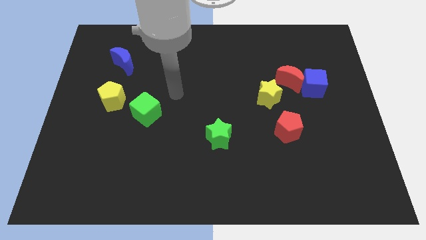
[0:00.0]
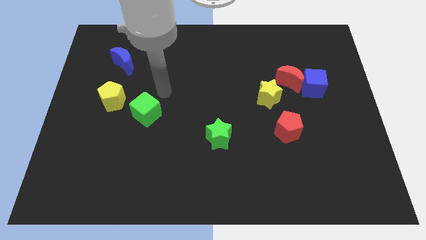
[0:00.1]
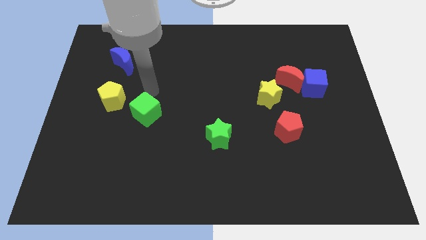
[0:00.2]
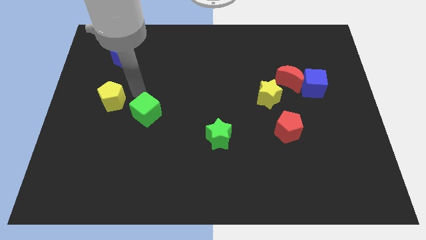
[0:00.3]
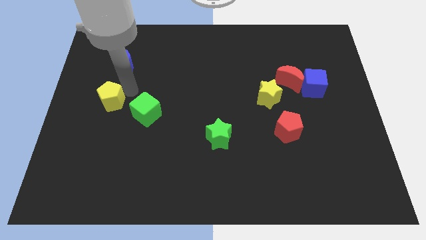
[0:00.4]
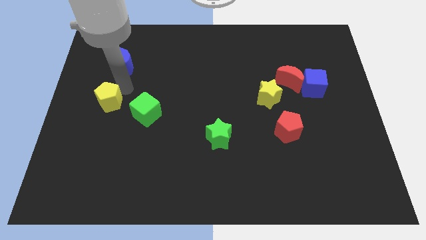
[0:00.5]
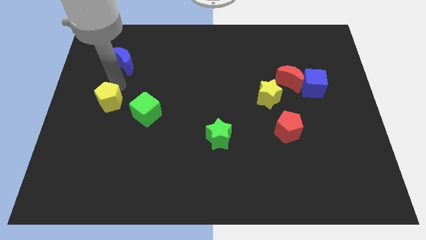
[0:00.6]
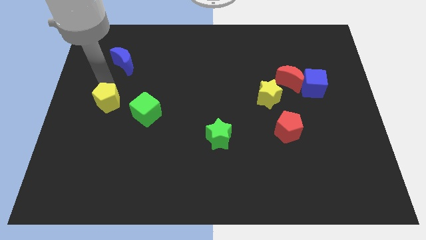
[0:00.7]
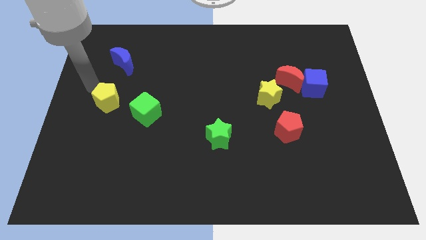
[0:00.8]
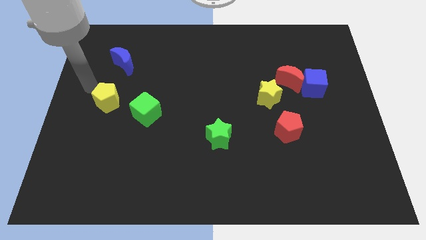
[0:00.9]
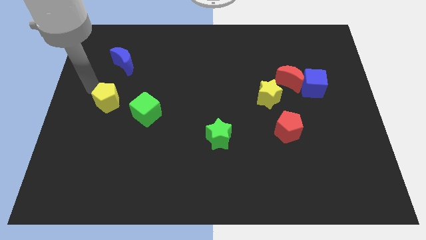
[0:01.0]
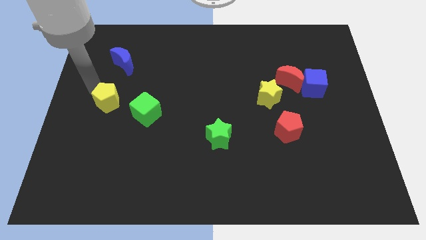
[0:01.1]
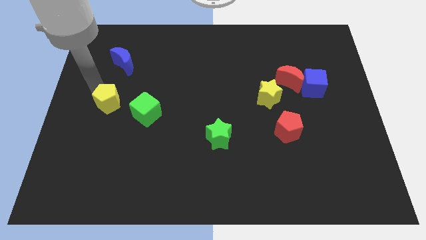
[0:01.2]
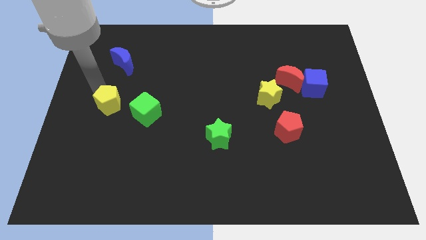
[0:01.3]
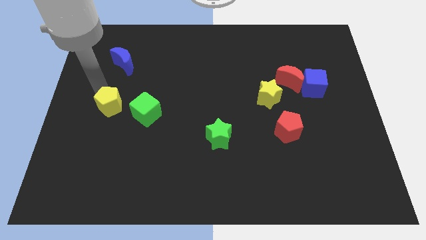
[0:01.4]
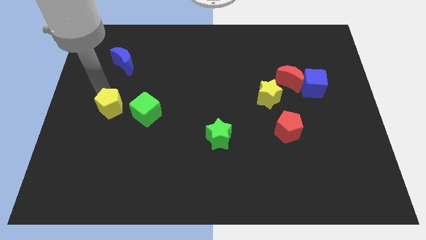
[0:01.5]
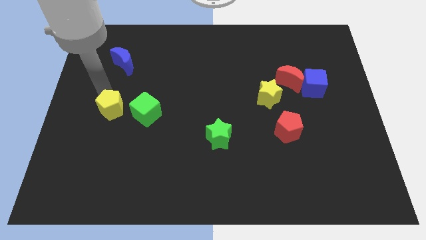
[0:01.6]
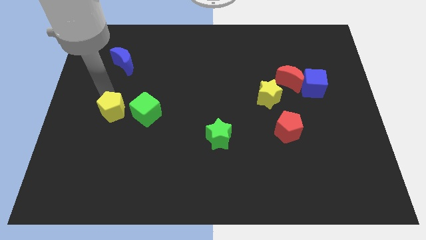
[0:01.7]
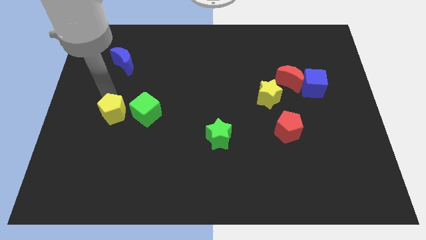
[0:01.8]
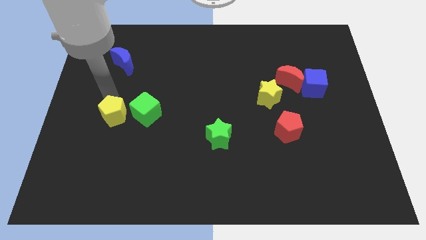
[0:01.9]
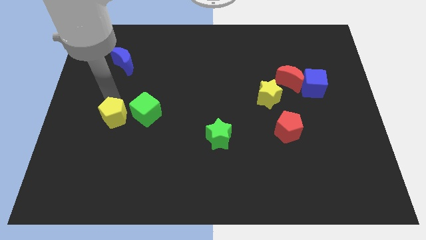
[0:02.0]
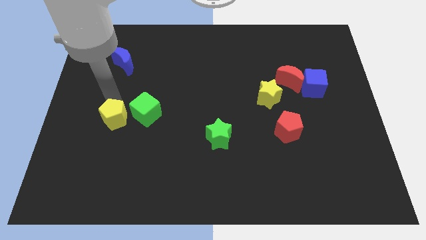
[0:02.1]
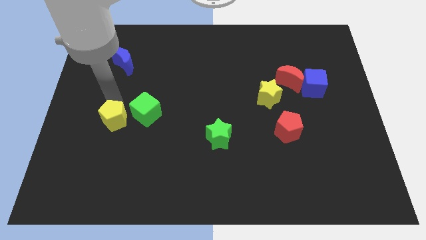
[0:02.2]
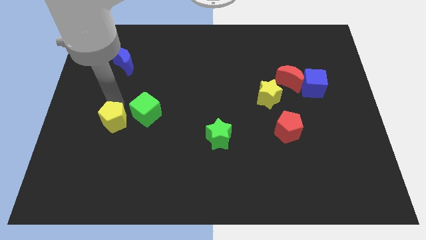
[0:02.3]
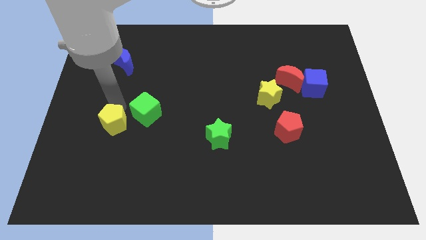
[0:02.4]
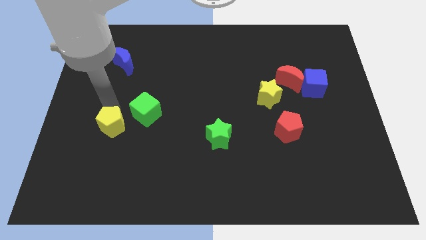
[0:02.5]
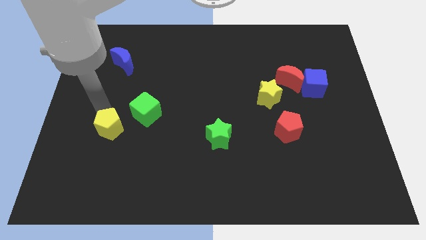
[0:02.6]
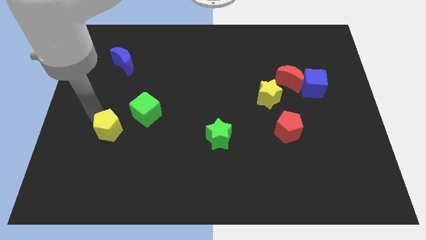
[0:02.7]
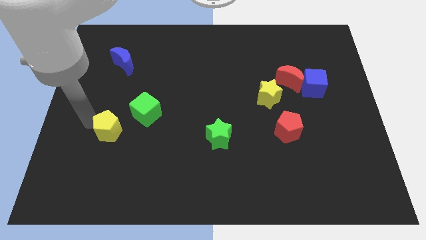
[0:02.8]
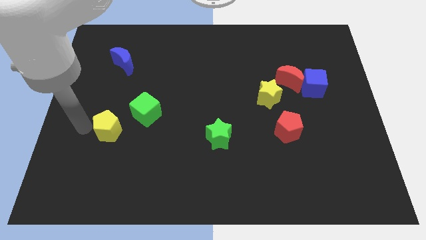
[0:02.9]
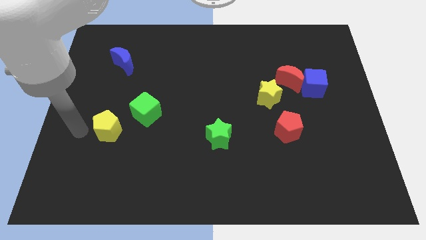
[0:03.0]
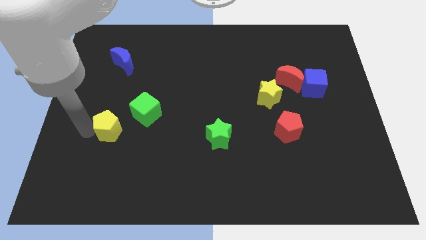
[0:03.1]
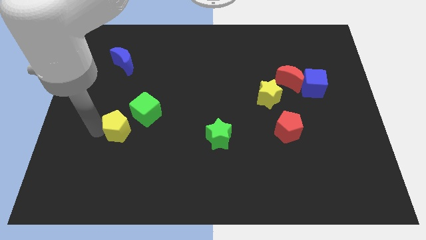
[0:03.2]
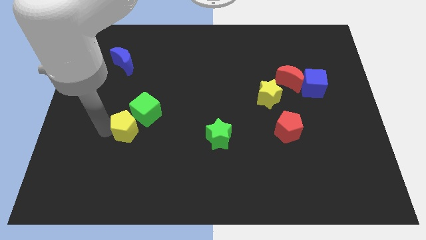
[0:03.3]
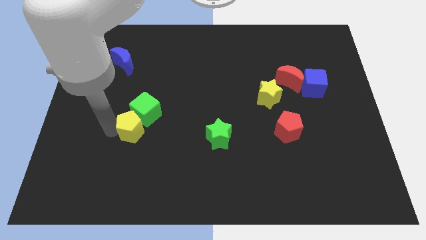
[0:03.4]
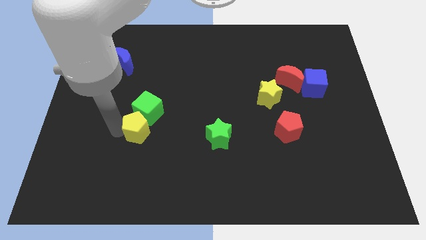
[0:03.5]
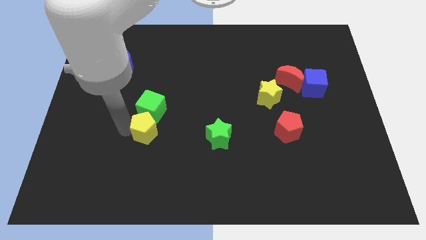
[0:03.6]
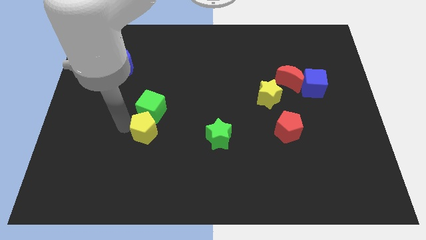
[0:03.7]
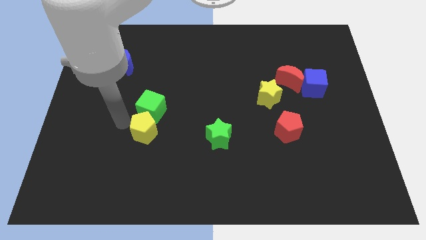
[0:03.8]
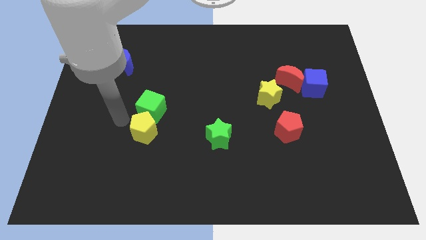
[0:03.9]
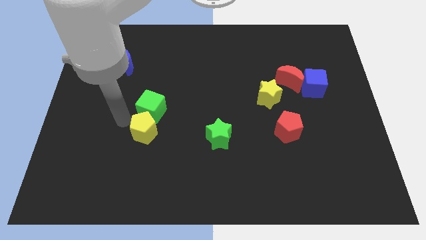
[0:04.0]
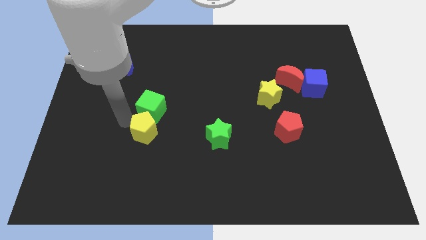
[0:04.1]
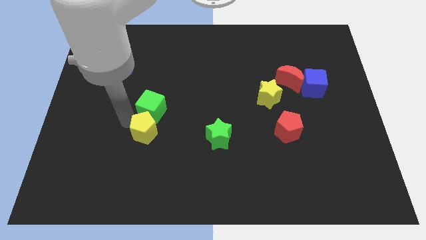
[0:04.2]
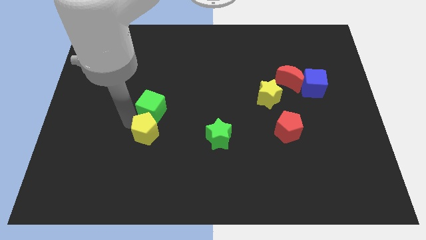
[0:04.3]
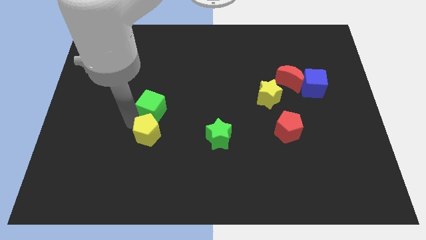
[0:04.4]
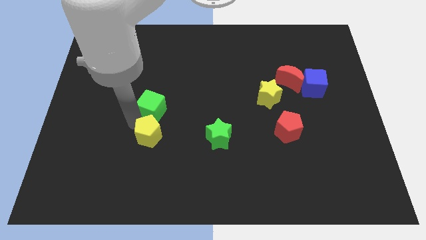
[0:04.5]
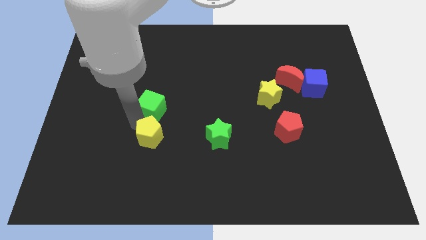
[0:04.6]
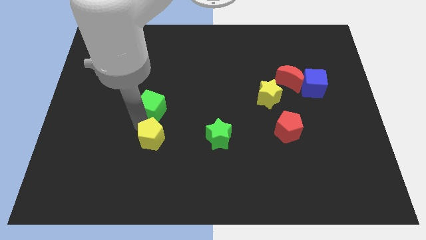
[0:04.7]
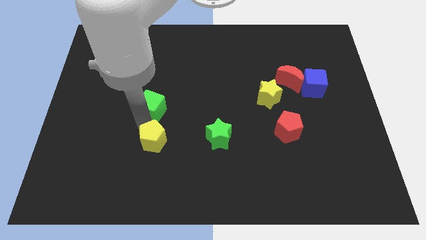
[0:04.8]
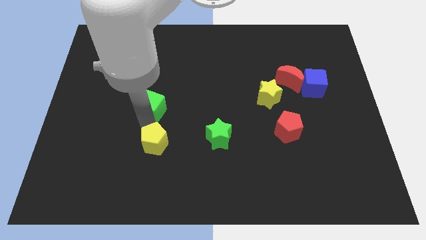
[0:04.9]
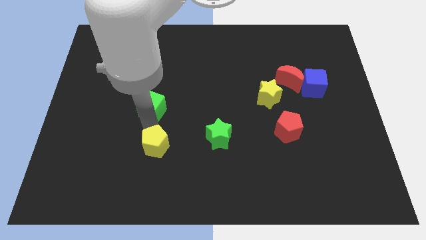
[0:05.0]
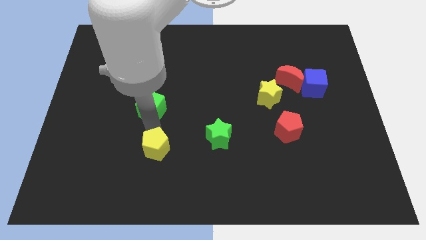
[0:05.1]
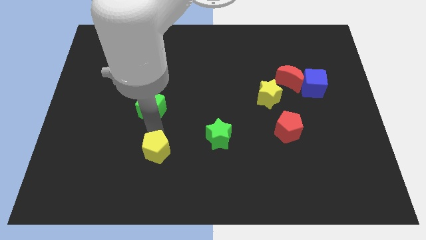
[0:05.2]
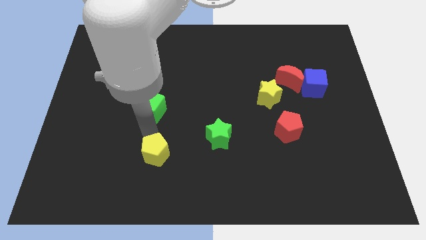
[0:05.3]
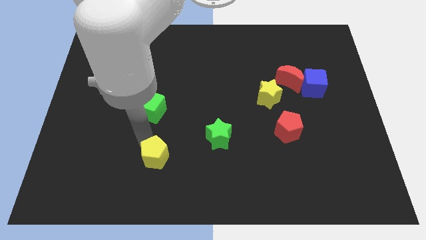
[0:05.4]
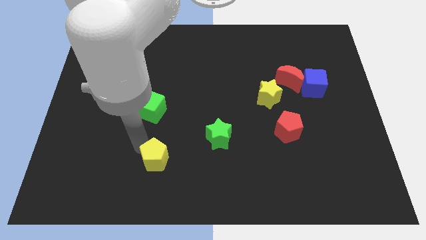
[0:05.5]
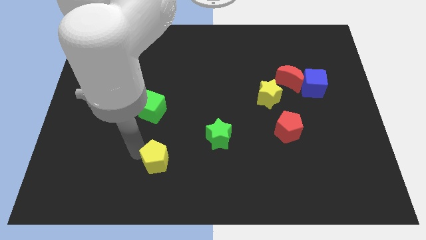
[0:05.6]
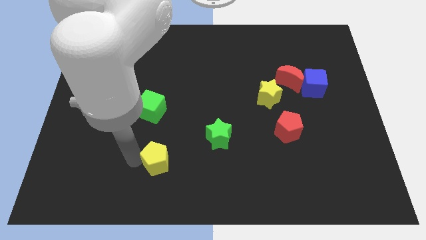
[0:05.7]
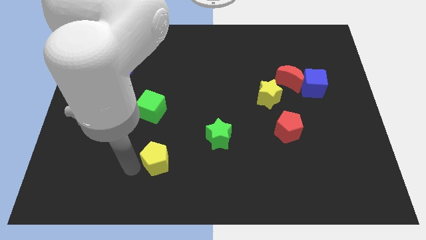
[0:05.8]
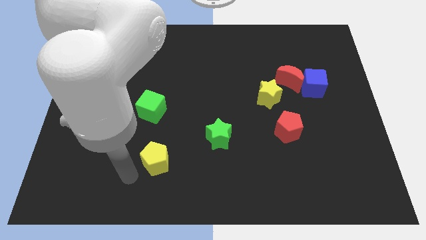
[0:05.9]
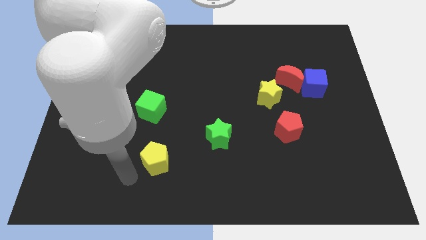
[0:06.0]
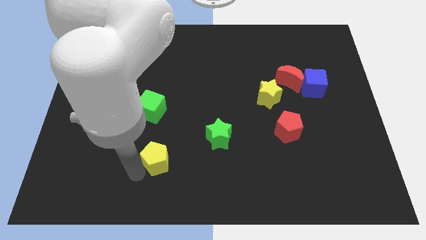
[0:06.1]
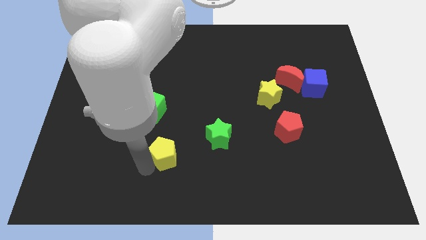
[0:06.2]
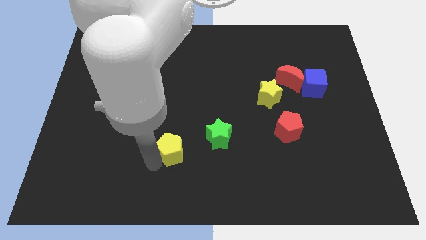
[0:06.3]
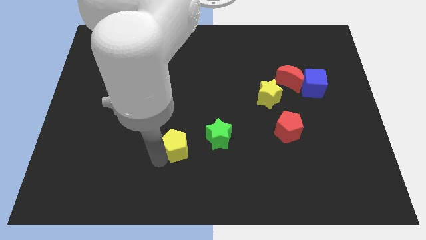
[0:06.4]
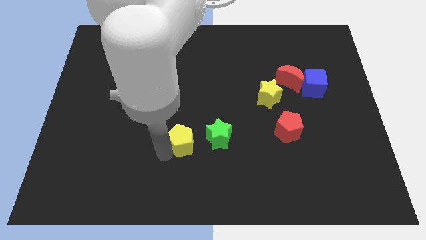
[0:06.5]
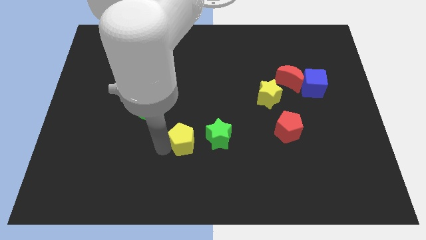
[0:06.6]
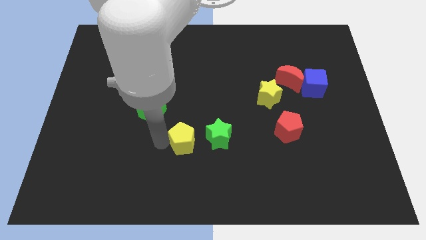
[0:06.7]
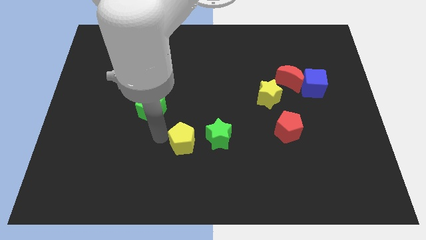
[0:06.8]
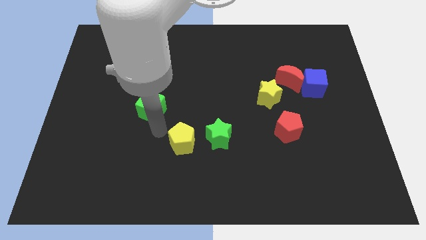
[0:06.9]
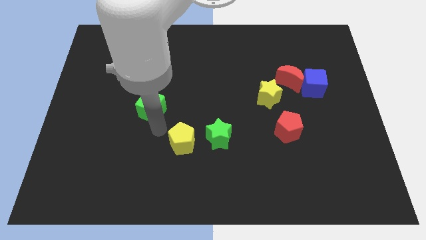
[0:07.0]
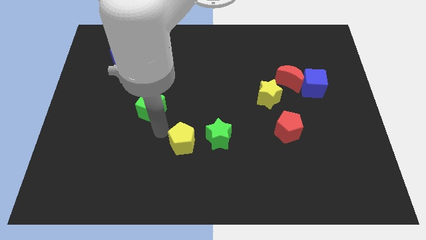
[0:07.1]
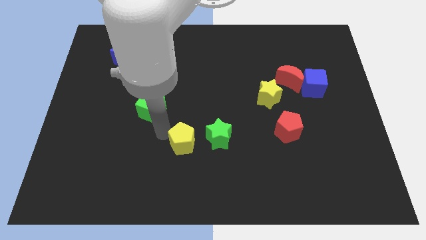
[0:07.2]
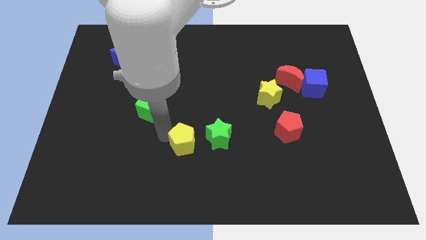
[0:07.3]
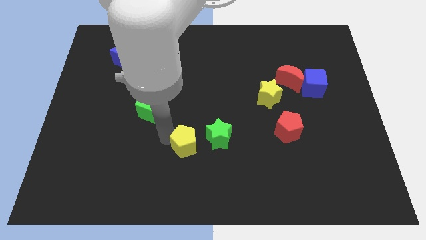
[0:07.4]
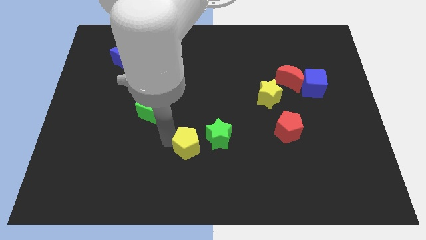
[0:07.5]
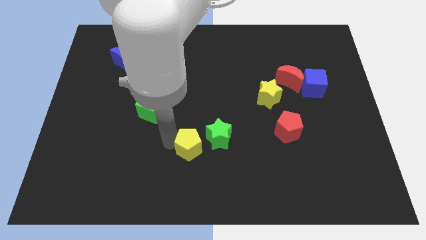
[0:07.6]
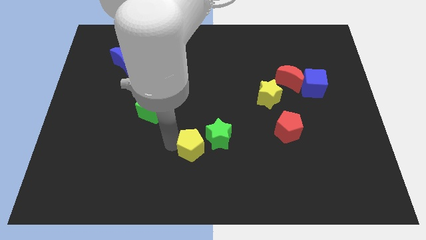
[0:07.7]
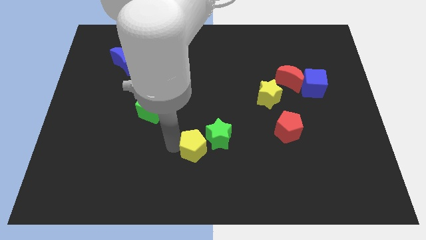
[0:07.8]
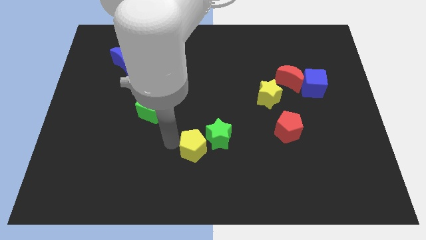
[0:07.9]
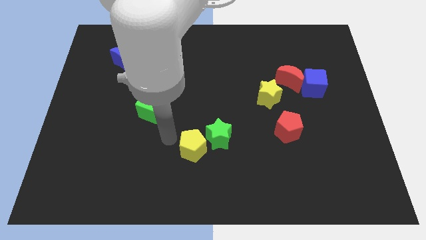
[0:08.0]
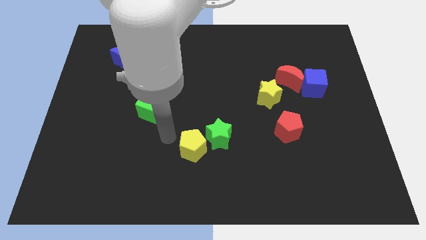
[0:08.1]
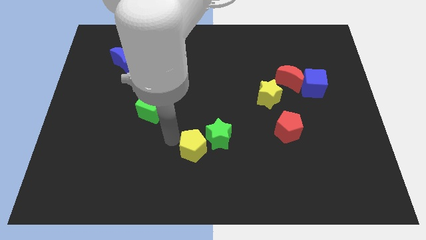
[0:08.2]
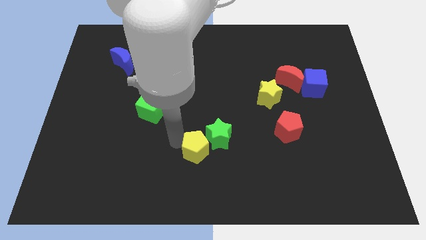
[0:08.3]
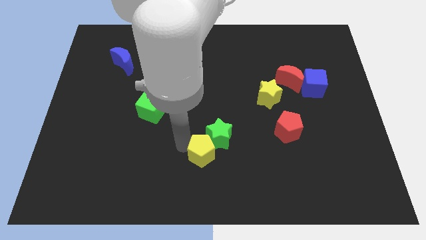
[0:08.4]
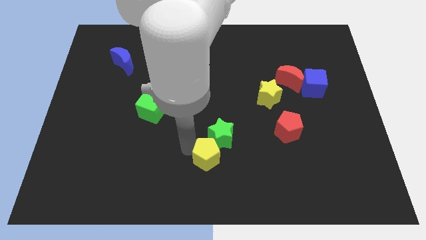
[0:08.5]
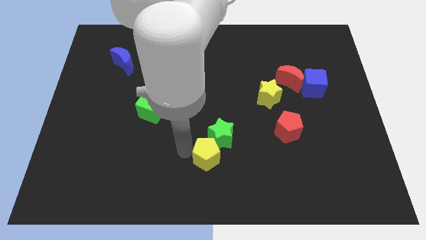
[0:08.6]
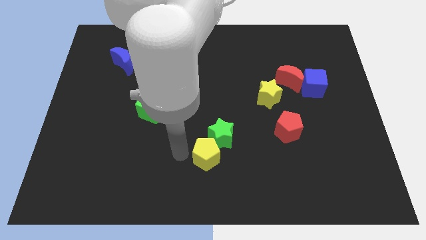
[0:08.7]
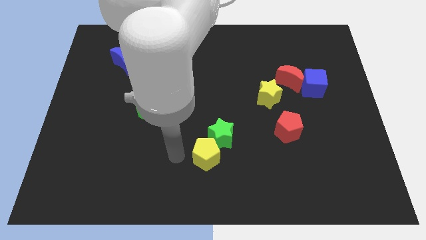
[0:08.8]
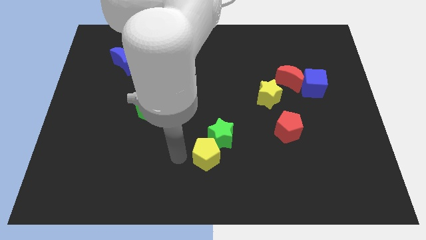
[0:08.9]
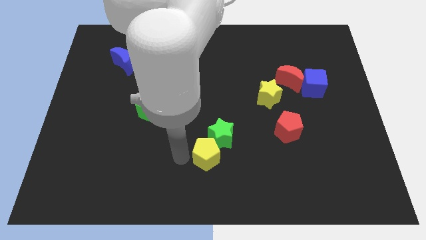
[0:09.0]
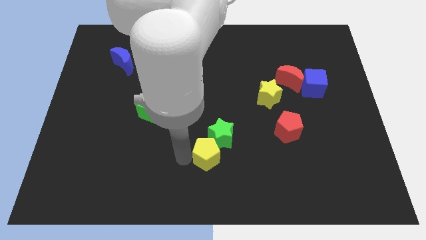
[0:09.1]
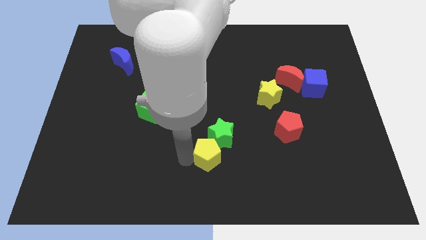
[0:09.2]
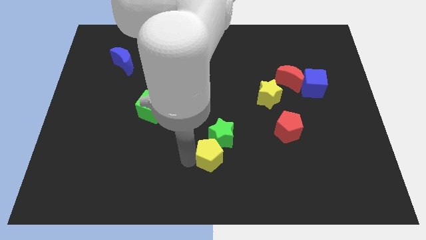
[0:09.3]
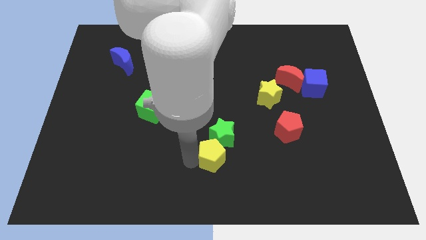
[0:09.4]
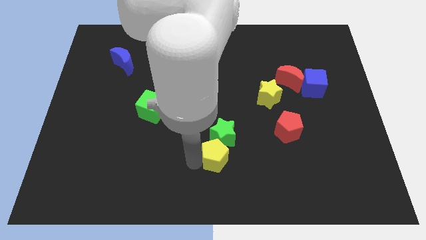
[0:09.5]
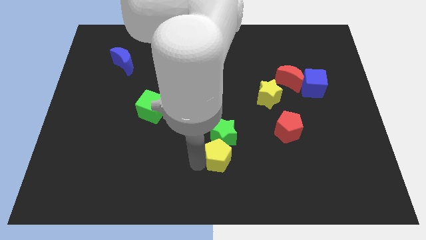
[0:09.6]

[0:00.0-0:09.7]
slide the yellow pentagon diagonally down and to the right of the green star
